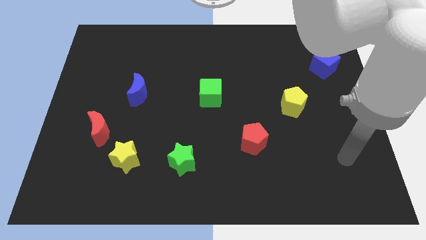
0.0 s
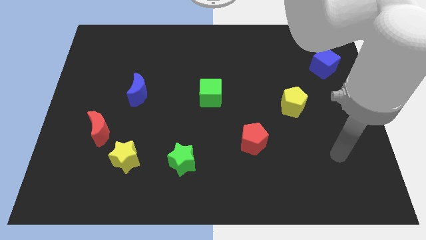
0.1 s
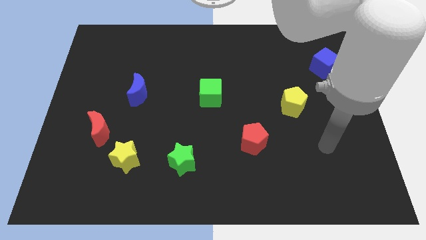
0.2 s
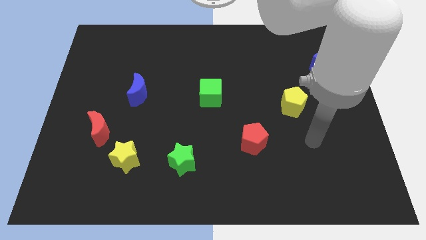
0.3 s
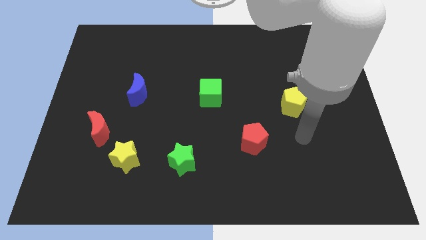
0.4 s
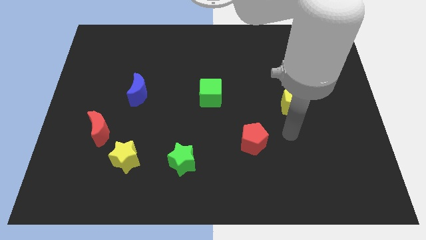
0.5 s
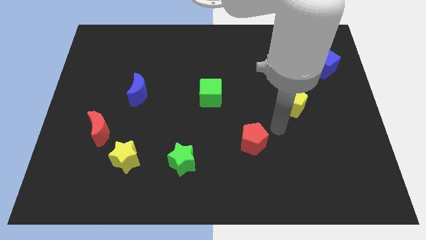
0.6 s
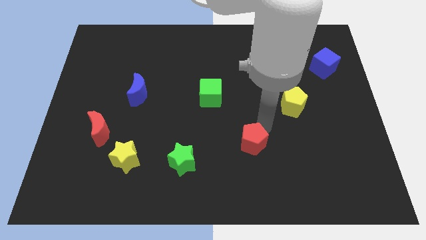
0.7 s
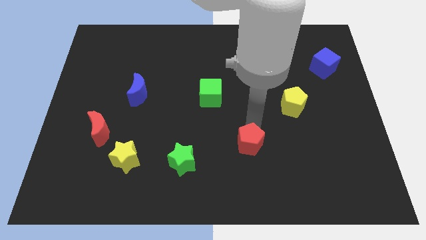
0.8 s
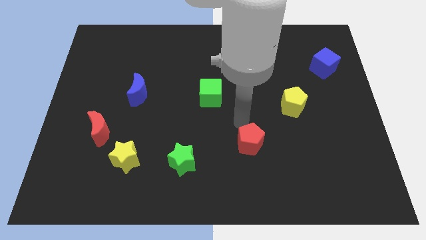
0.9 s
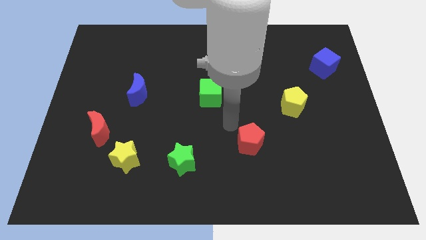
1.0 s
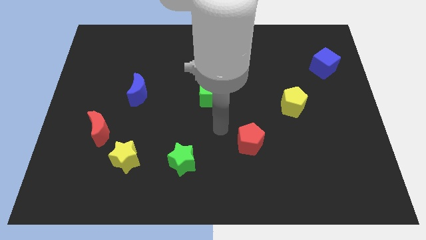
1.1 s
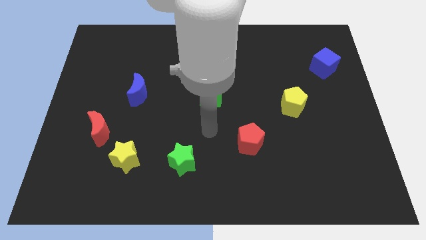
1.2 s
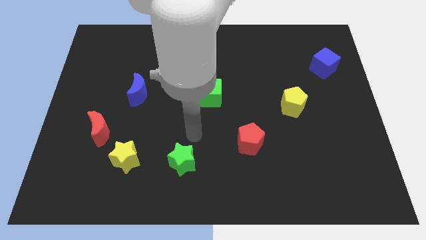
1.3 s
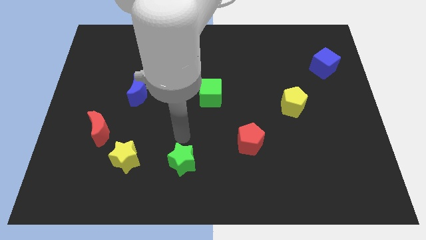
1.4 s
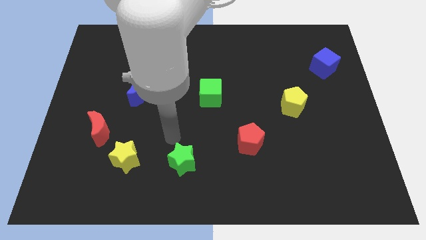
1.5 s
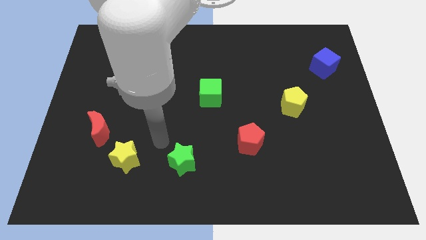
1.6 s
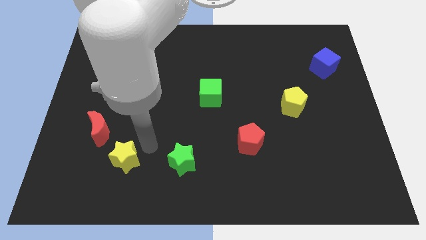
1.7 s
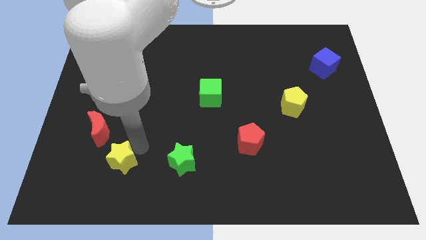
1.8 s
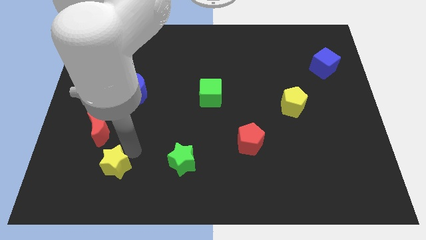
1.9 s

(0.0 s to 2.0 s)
move the red moon away from the yellow star

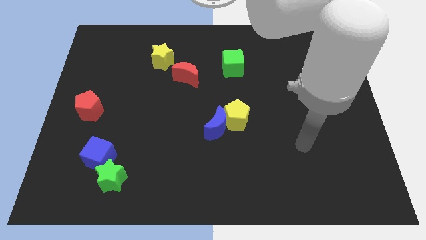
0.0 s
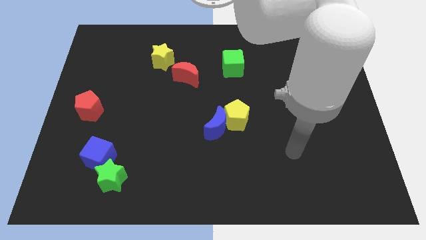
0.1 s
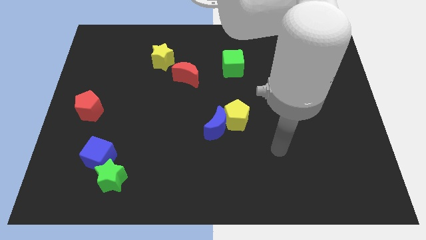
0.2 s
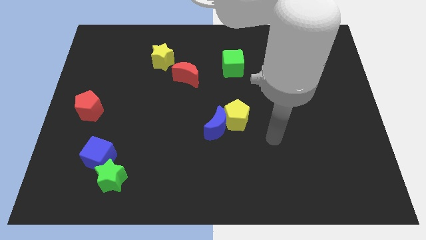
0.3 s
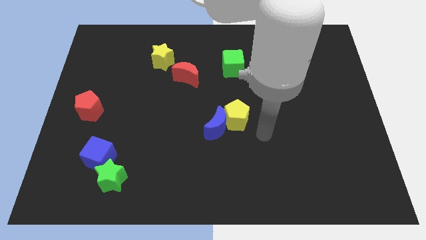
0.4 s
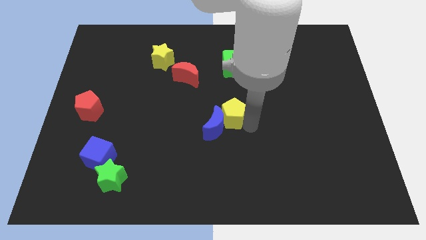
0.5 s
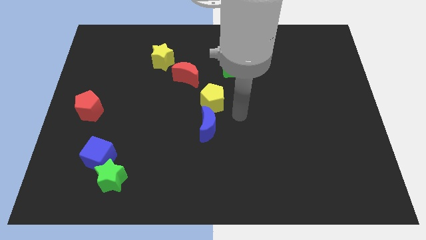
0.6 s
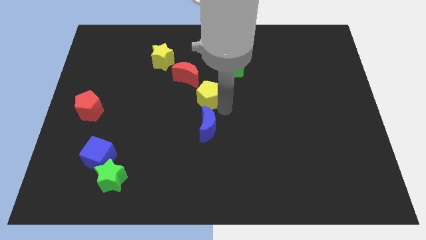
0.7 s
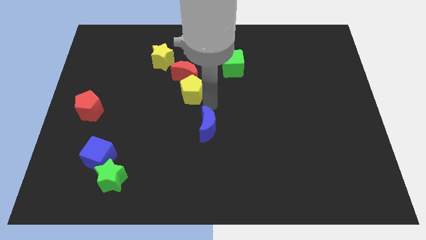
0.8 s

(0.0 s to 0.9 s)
pull the blue moon apart from the yellow pentagon

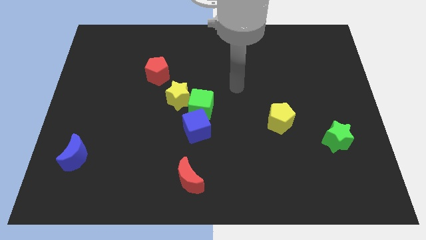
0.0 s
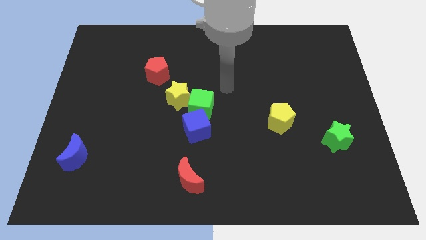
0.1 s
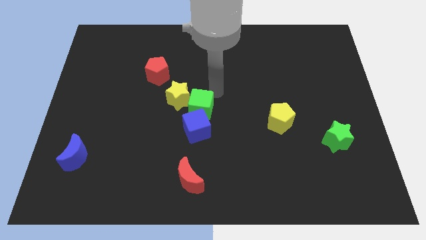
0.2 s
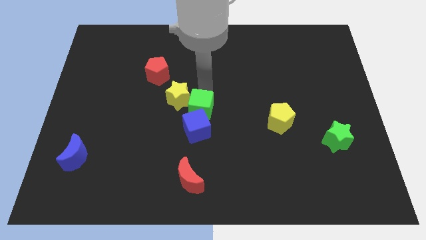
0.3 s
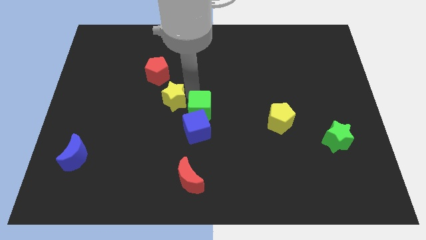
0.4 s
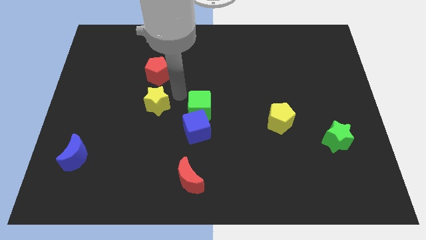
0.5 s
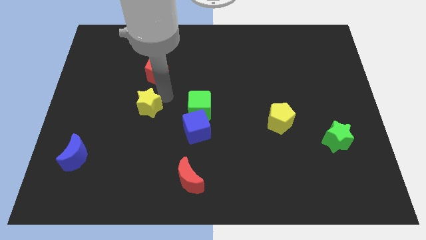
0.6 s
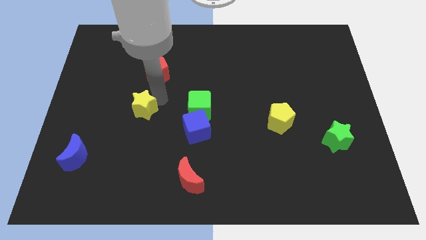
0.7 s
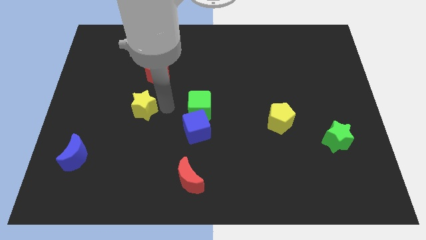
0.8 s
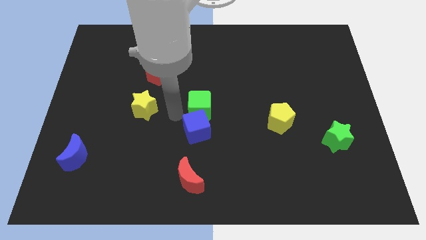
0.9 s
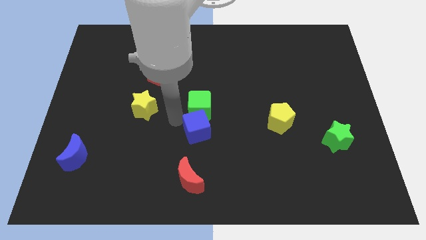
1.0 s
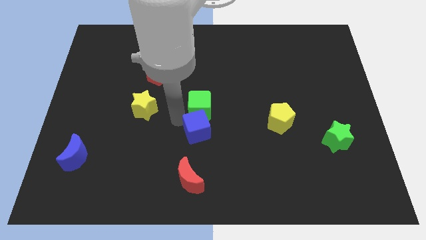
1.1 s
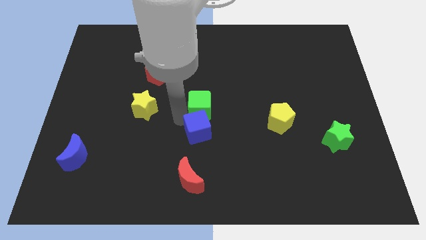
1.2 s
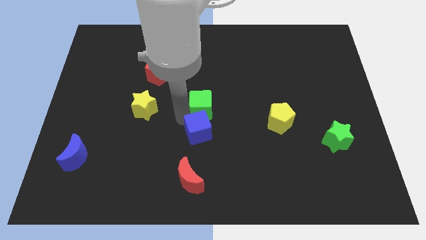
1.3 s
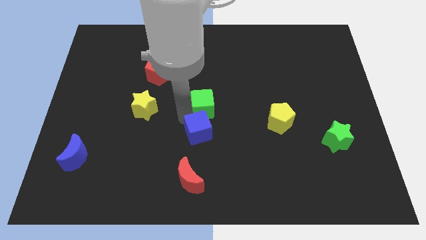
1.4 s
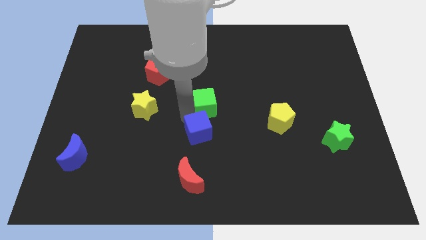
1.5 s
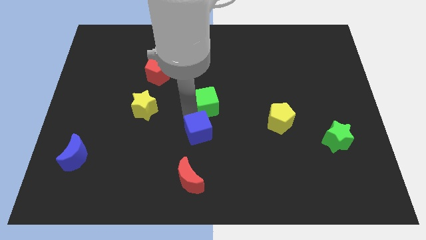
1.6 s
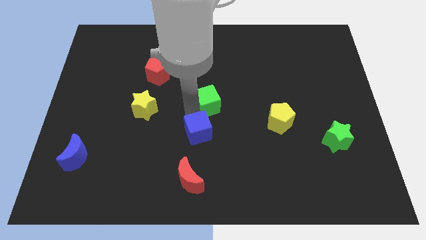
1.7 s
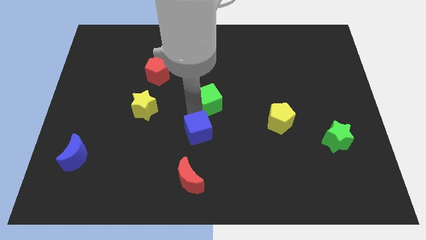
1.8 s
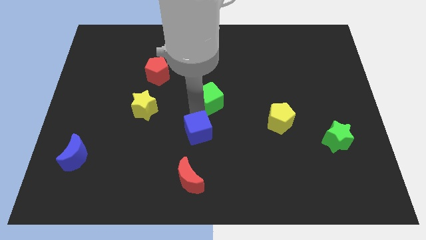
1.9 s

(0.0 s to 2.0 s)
move the green cube away from the yellow star and blue cube

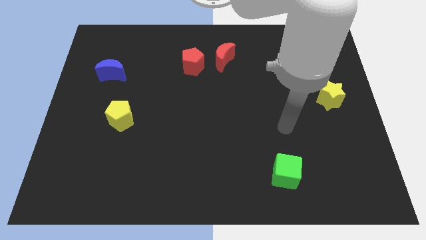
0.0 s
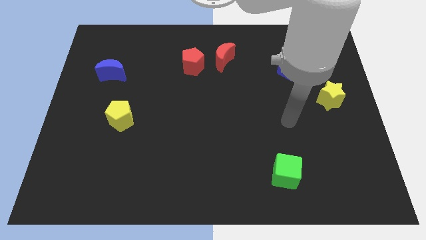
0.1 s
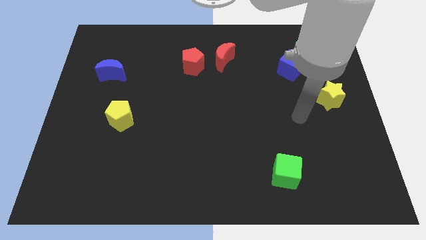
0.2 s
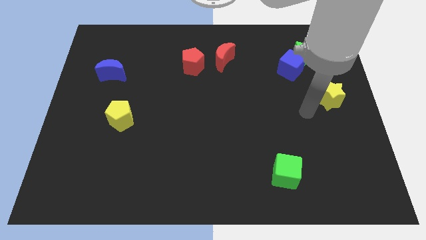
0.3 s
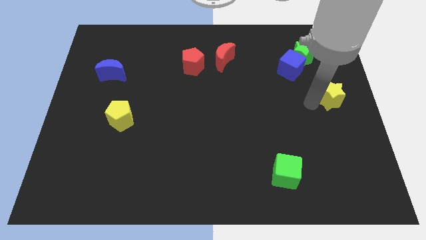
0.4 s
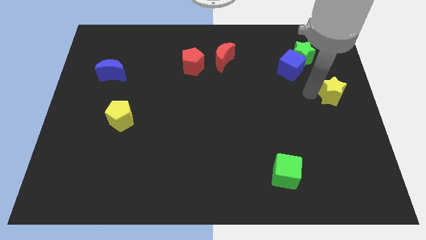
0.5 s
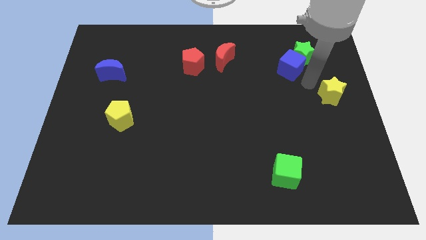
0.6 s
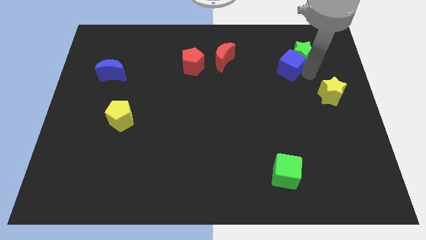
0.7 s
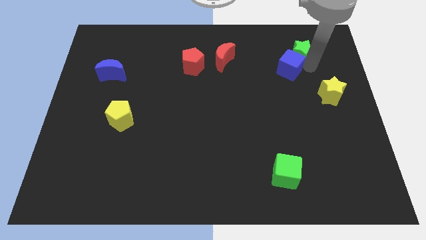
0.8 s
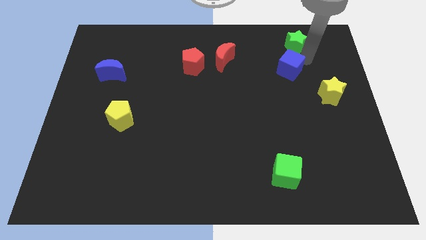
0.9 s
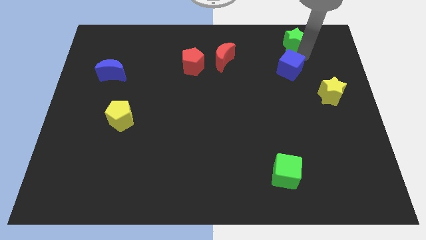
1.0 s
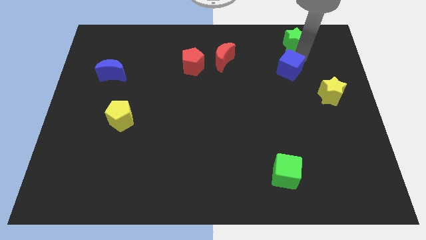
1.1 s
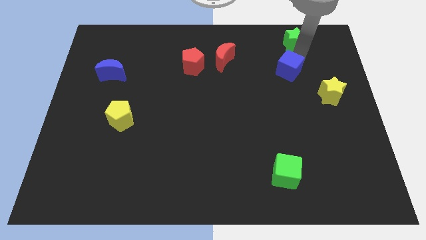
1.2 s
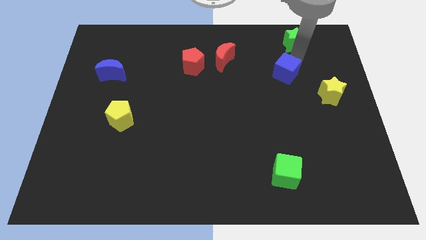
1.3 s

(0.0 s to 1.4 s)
move the blue cube away from the green star

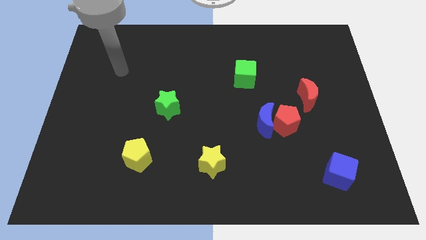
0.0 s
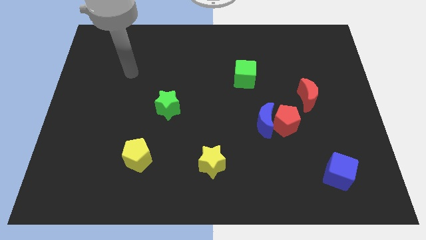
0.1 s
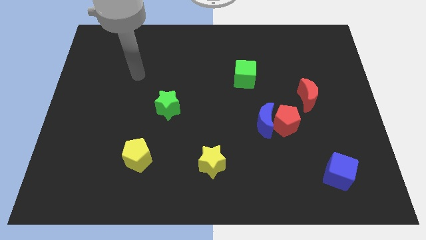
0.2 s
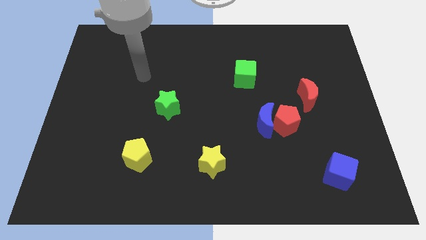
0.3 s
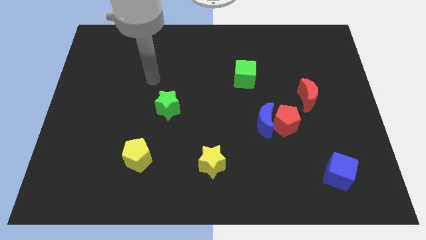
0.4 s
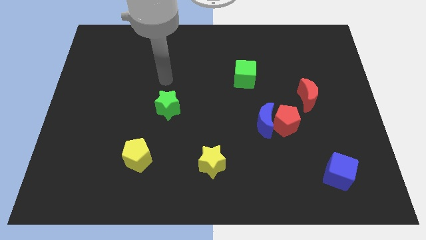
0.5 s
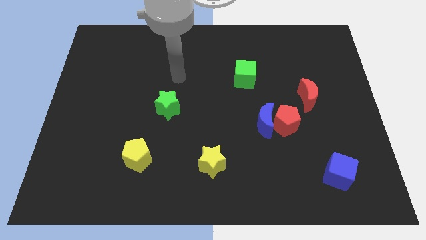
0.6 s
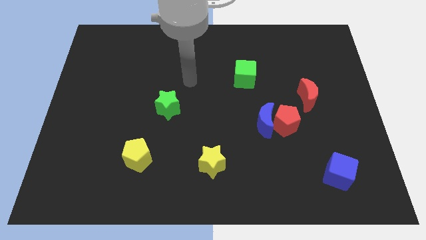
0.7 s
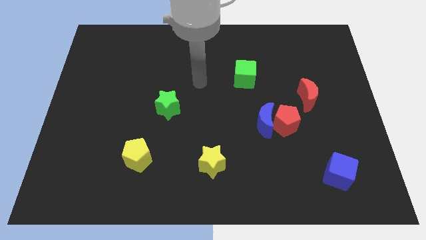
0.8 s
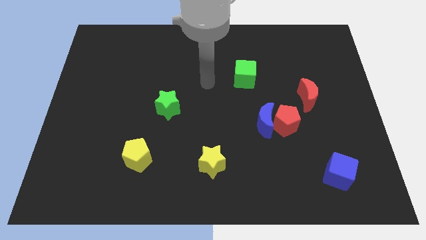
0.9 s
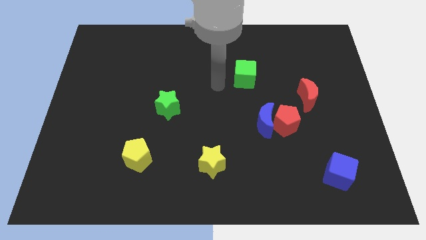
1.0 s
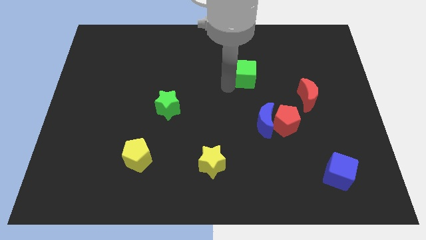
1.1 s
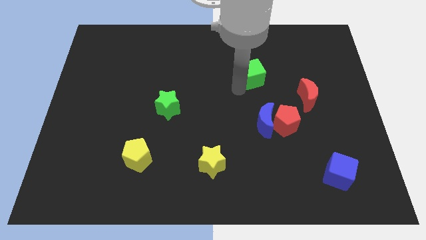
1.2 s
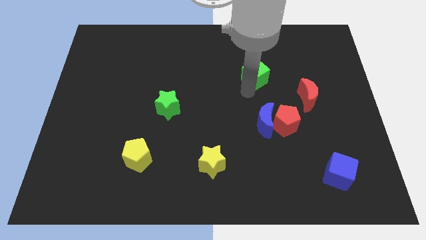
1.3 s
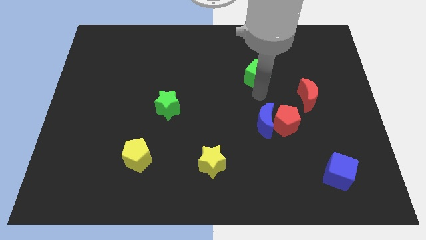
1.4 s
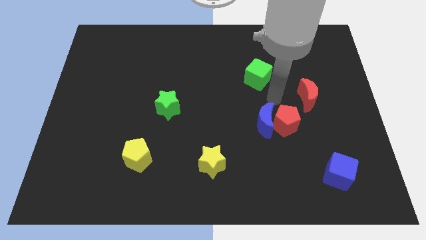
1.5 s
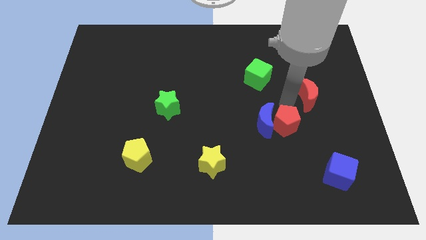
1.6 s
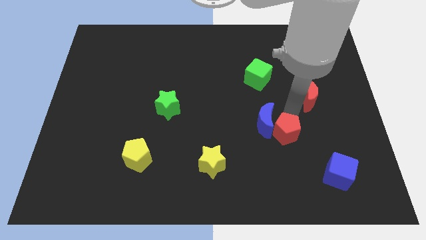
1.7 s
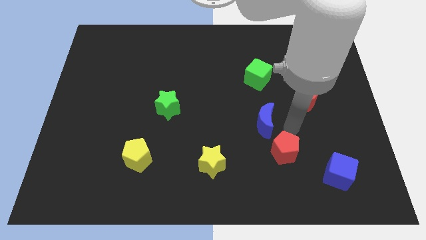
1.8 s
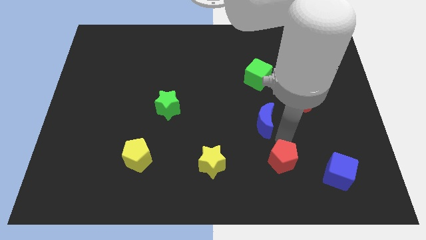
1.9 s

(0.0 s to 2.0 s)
separate the blue moon from the red pentagon

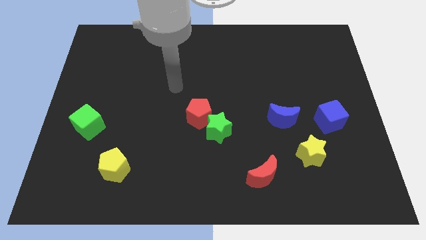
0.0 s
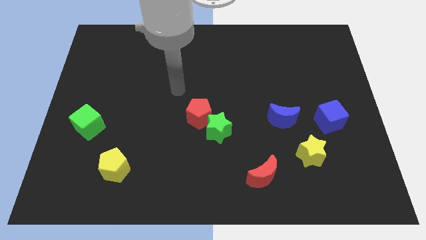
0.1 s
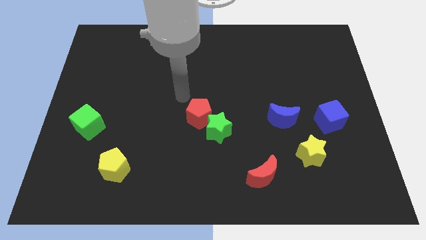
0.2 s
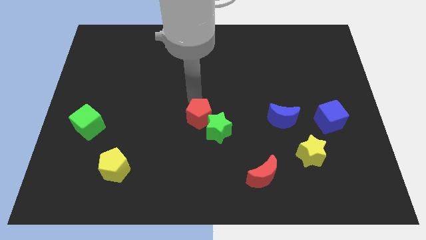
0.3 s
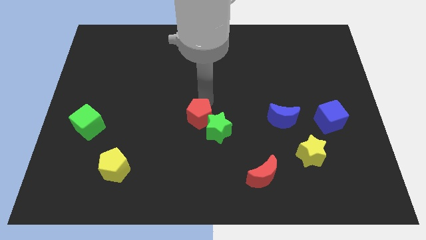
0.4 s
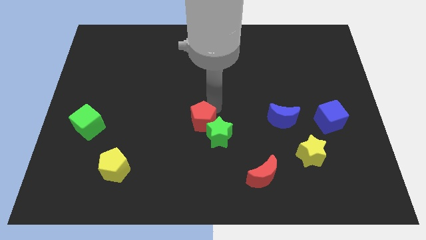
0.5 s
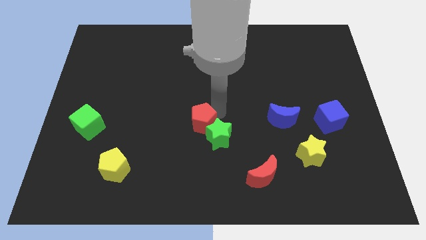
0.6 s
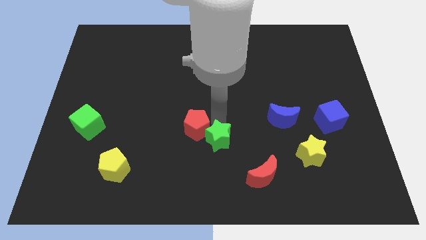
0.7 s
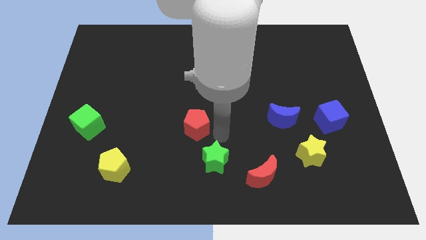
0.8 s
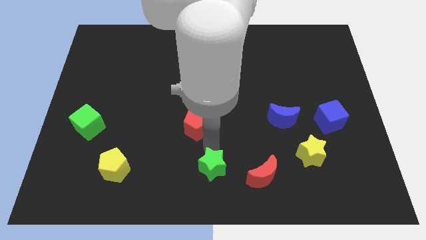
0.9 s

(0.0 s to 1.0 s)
pull the red pentagon apart from the green star
